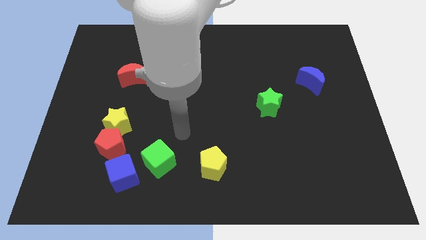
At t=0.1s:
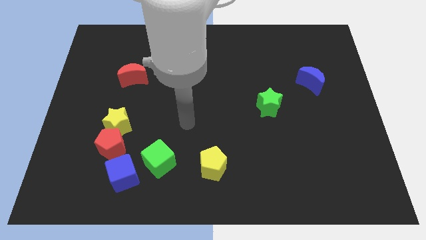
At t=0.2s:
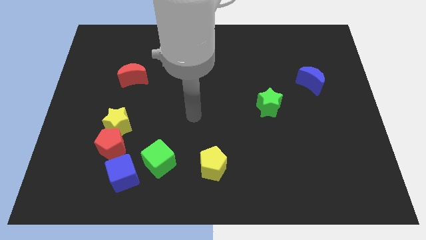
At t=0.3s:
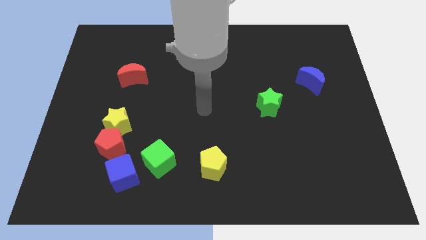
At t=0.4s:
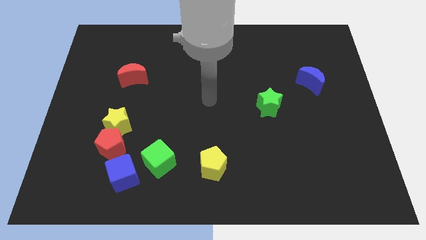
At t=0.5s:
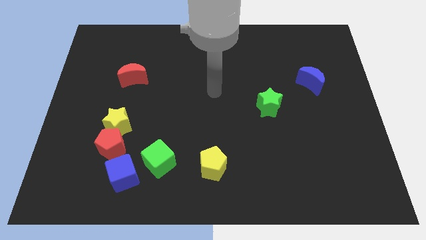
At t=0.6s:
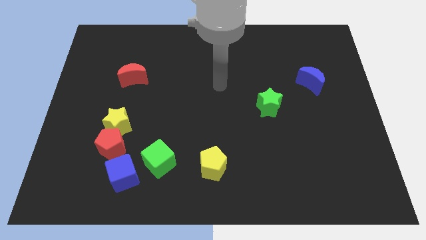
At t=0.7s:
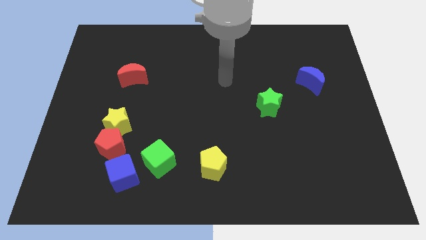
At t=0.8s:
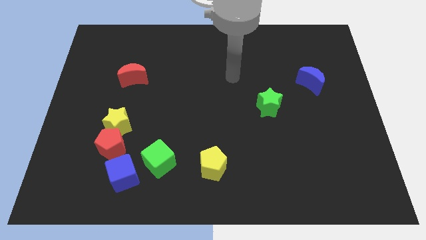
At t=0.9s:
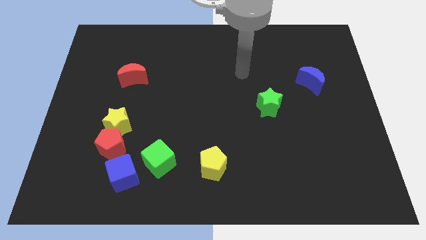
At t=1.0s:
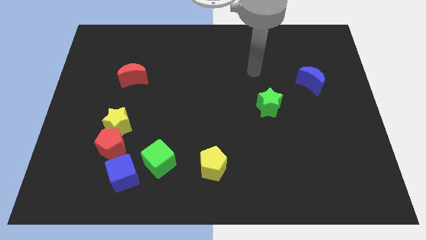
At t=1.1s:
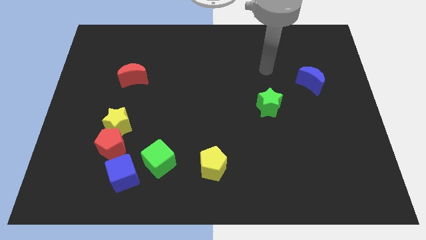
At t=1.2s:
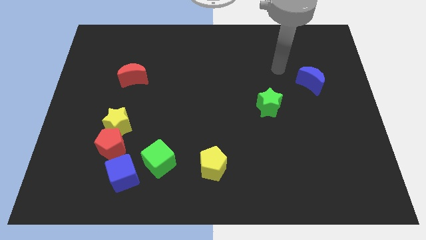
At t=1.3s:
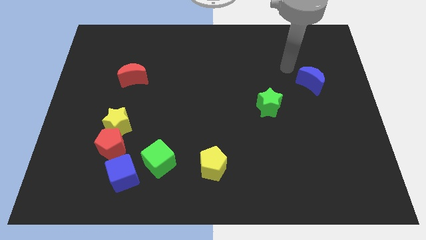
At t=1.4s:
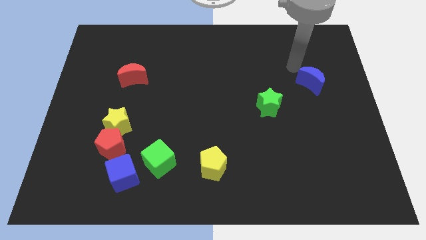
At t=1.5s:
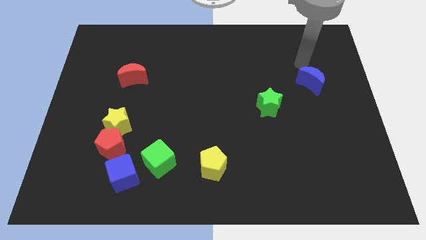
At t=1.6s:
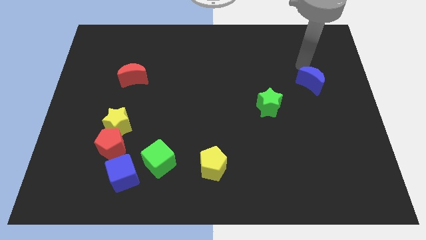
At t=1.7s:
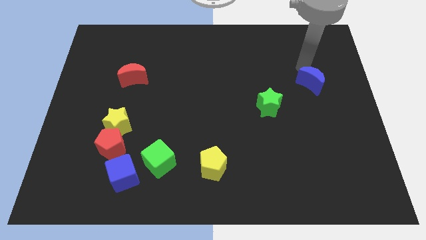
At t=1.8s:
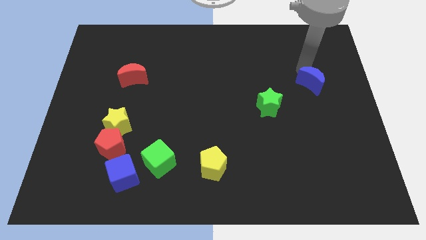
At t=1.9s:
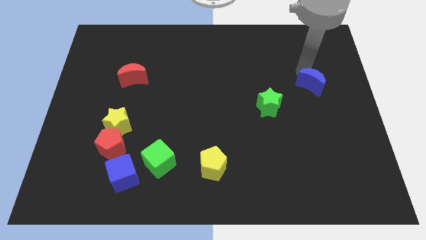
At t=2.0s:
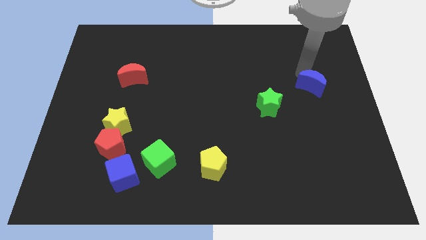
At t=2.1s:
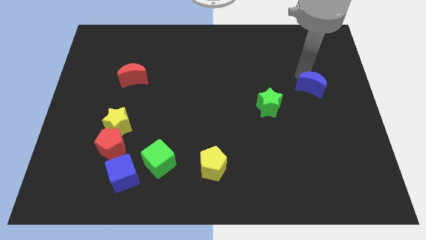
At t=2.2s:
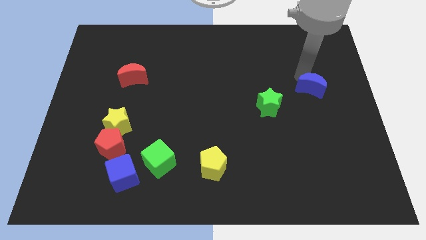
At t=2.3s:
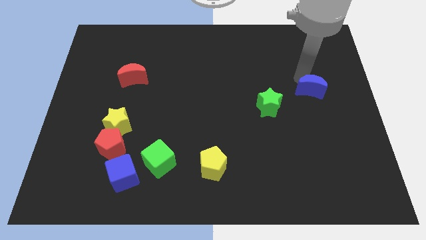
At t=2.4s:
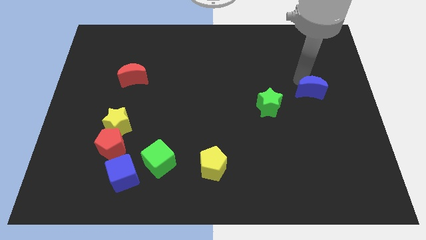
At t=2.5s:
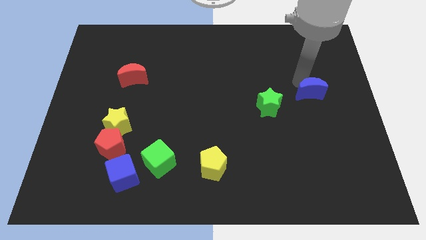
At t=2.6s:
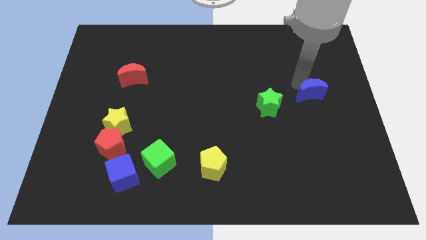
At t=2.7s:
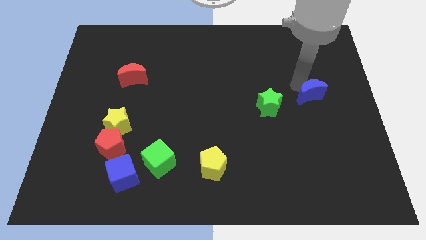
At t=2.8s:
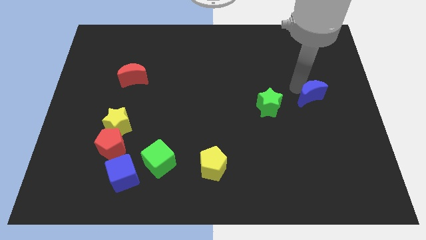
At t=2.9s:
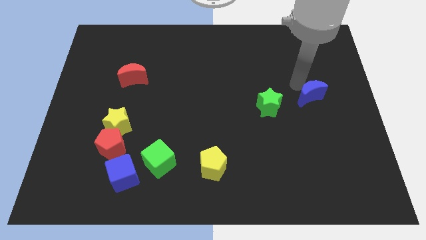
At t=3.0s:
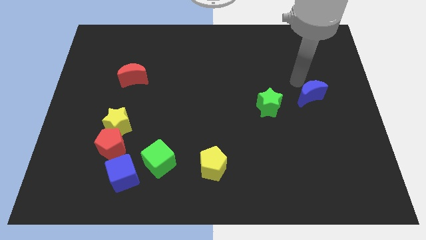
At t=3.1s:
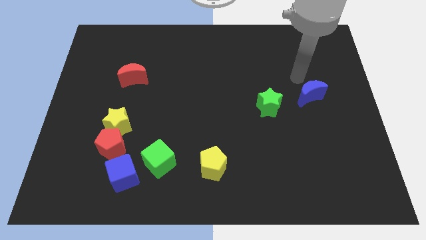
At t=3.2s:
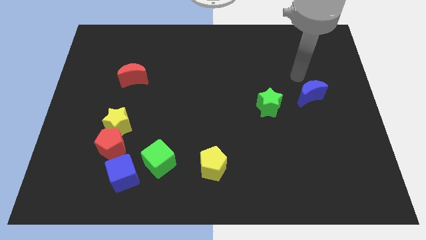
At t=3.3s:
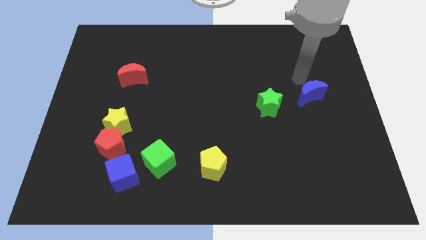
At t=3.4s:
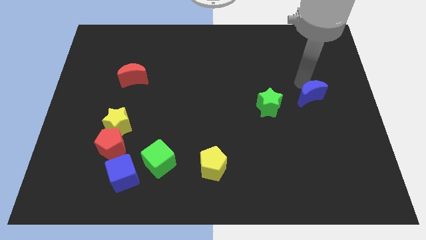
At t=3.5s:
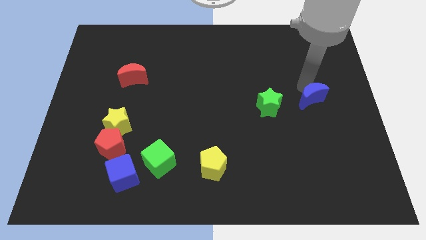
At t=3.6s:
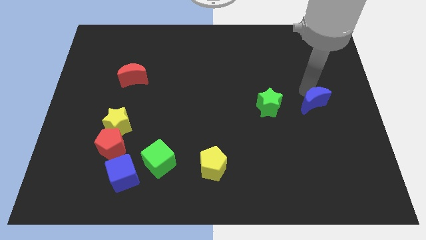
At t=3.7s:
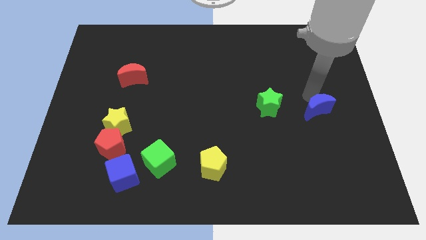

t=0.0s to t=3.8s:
move the blue moon a little bit down

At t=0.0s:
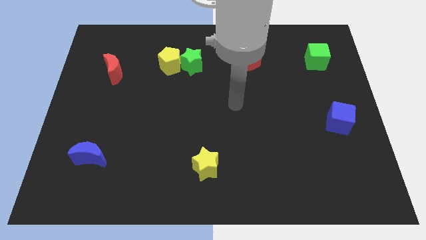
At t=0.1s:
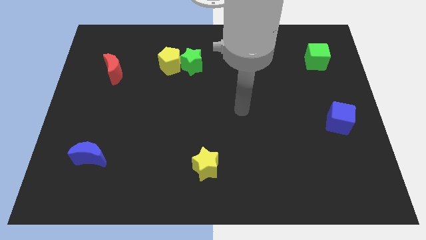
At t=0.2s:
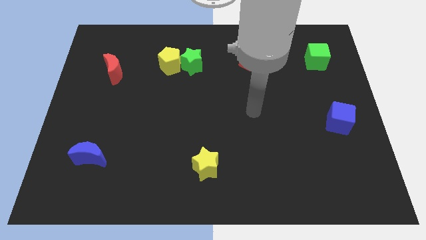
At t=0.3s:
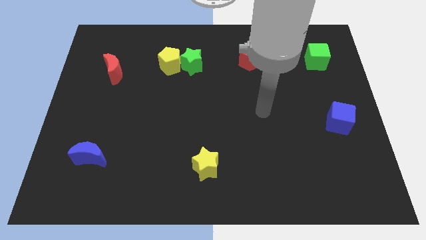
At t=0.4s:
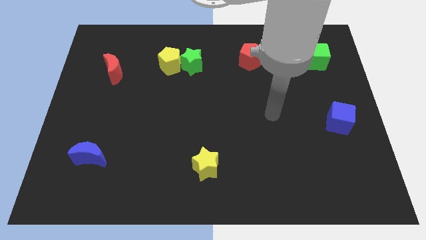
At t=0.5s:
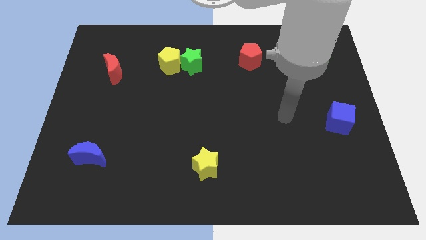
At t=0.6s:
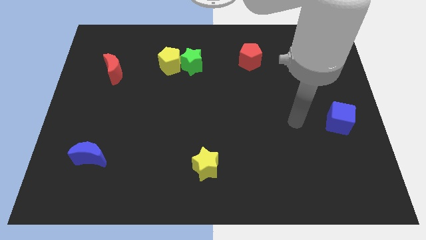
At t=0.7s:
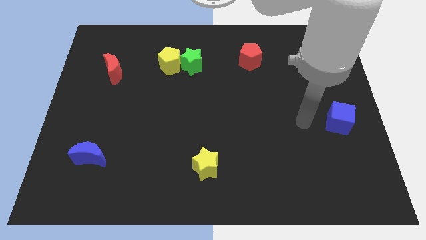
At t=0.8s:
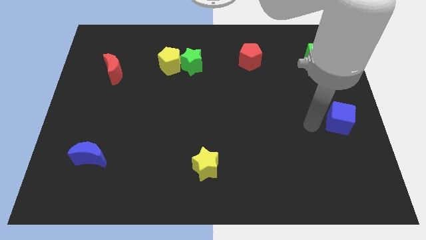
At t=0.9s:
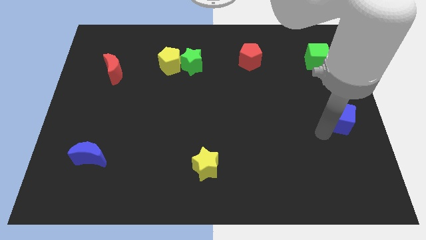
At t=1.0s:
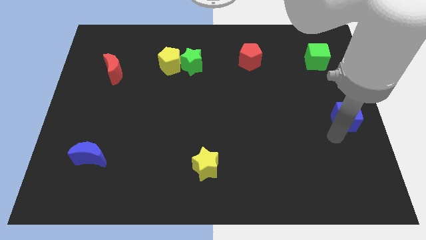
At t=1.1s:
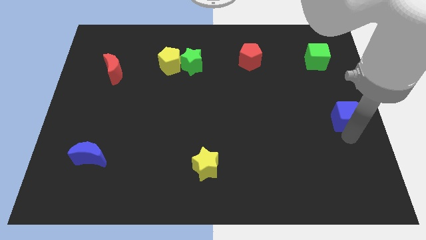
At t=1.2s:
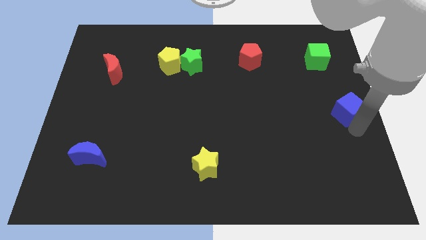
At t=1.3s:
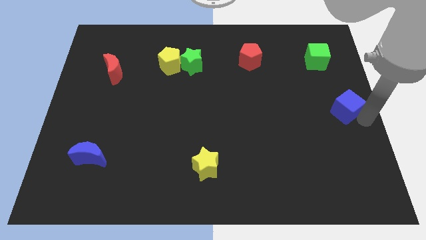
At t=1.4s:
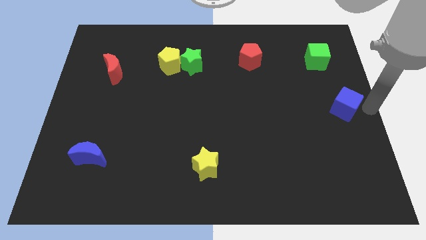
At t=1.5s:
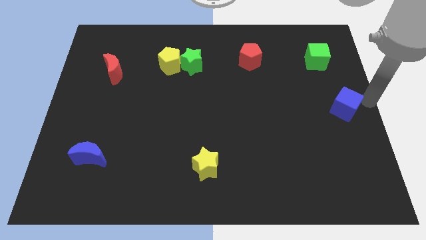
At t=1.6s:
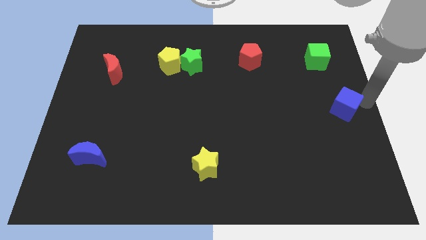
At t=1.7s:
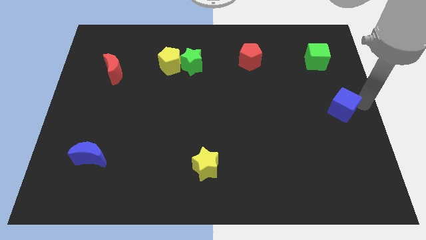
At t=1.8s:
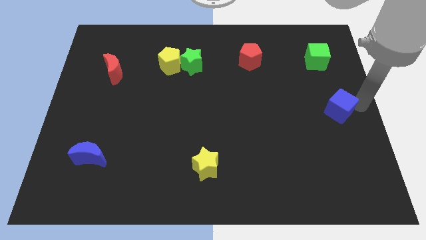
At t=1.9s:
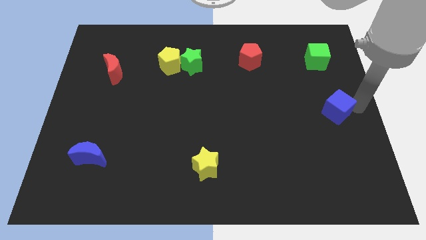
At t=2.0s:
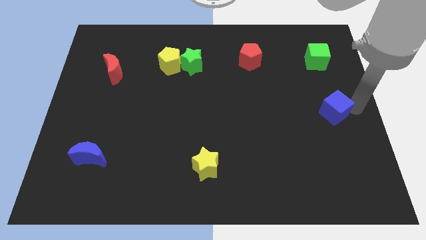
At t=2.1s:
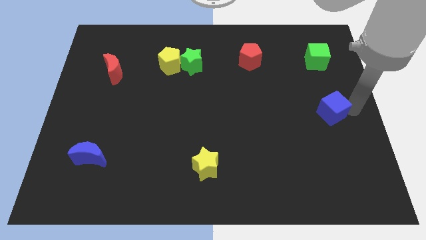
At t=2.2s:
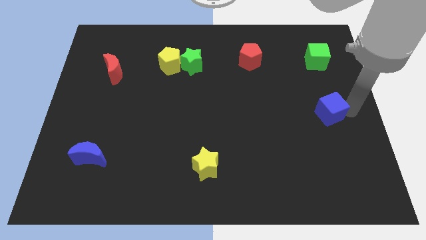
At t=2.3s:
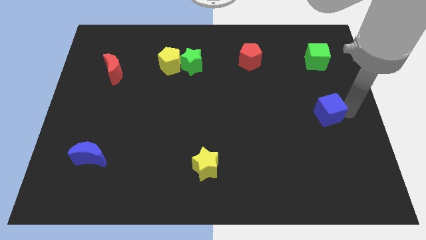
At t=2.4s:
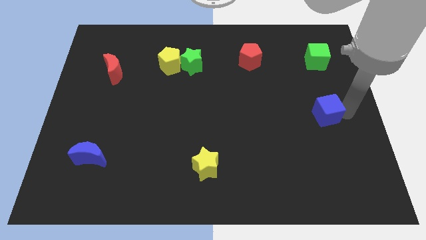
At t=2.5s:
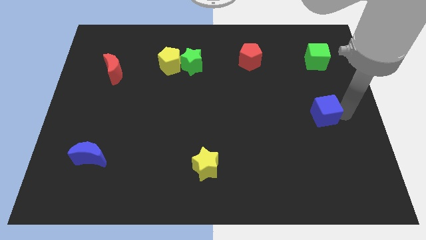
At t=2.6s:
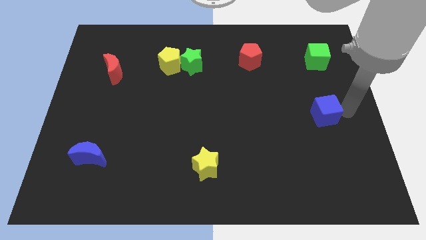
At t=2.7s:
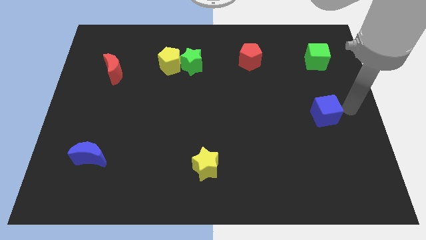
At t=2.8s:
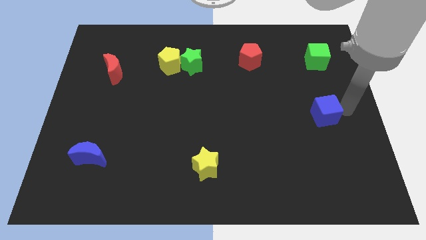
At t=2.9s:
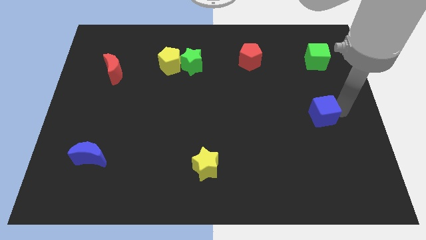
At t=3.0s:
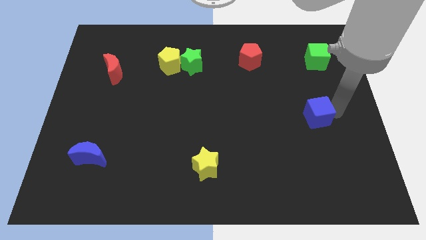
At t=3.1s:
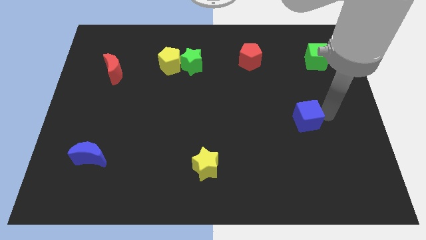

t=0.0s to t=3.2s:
slightly push the blue cube left

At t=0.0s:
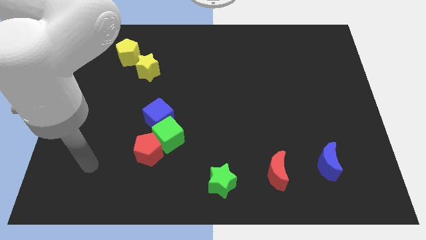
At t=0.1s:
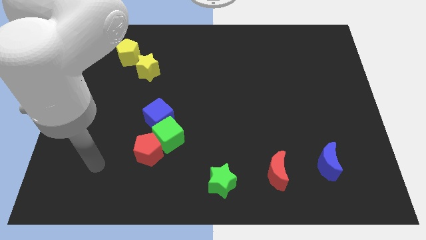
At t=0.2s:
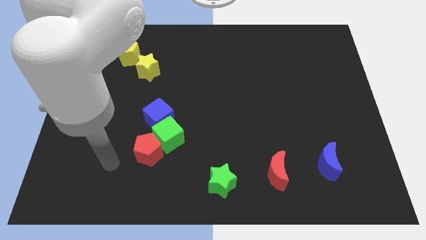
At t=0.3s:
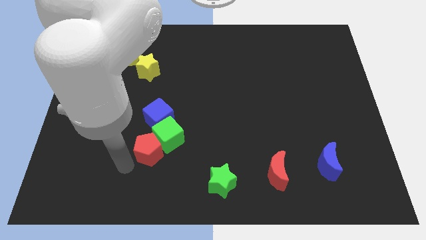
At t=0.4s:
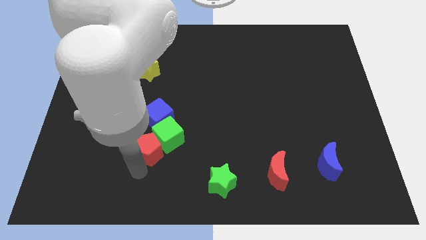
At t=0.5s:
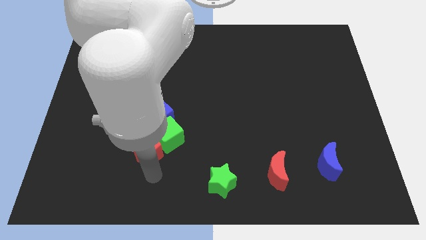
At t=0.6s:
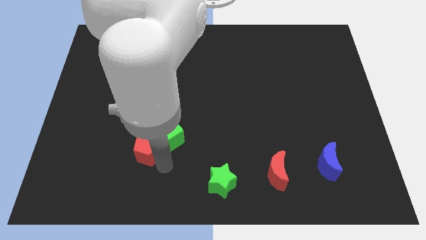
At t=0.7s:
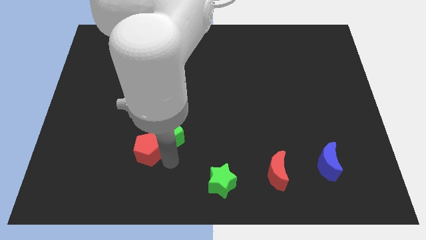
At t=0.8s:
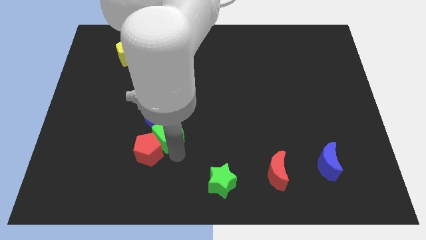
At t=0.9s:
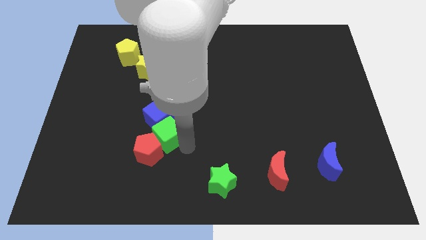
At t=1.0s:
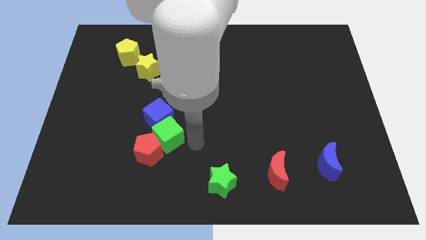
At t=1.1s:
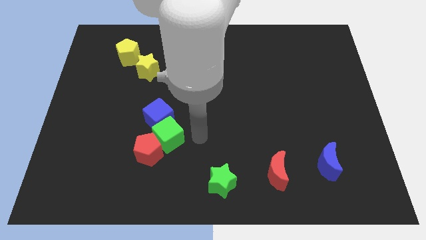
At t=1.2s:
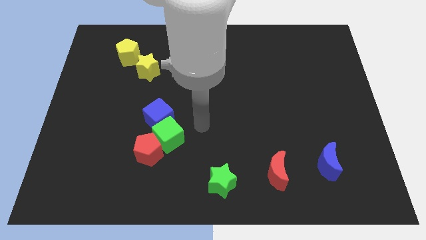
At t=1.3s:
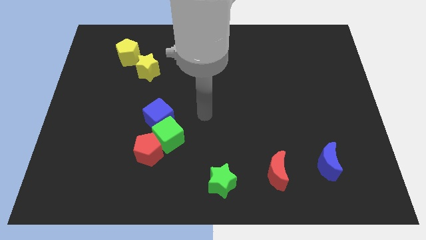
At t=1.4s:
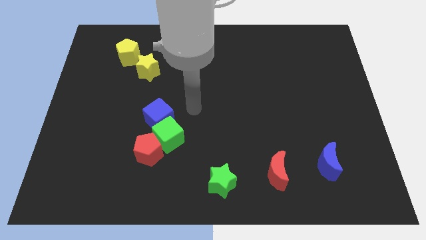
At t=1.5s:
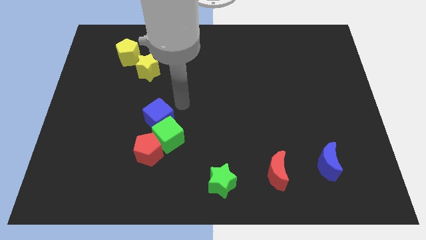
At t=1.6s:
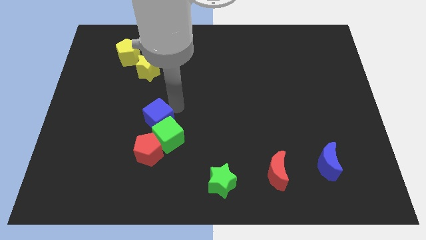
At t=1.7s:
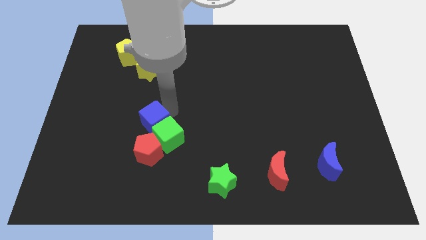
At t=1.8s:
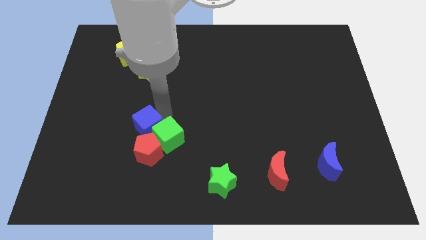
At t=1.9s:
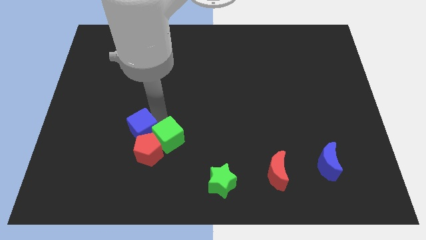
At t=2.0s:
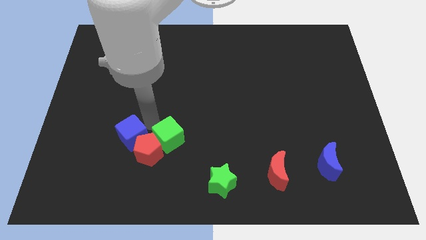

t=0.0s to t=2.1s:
move the blue cube down and to the left diagonally a little
